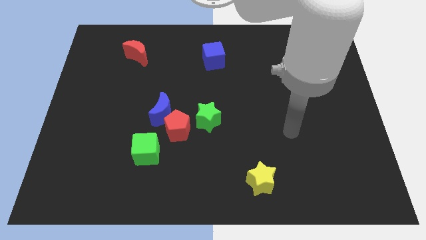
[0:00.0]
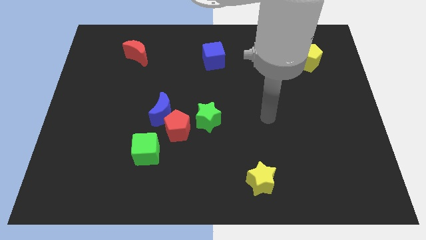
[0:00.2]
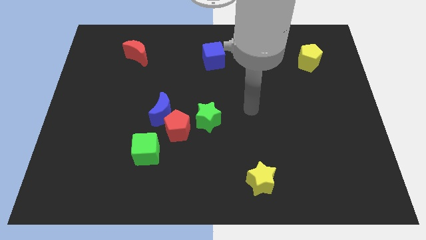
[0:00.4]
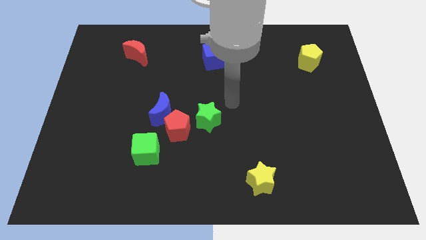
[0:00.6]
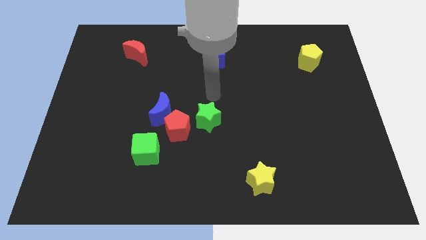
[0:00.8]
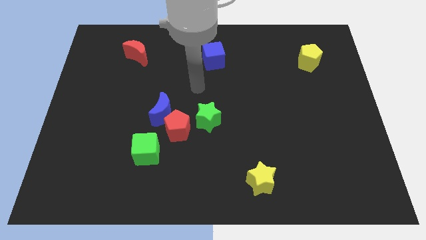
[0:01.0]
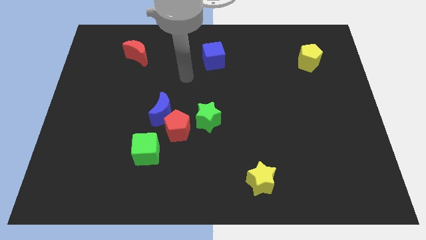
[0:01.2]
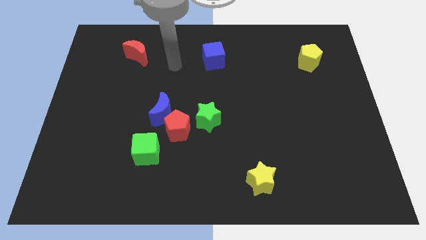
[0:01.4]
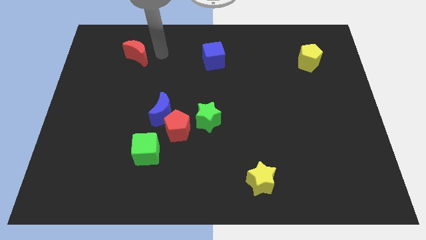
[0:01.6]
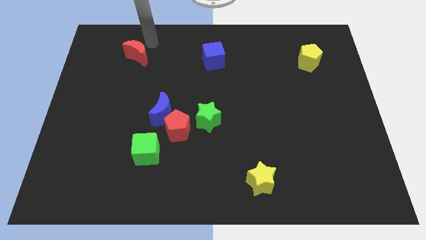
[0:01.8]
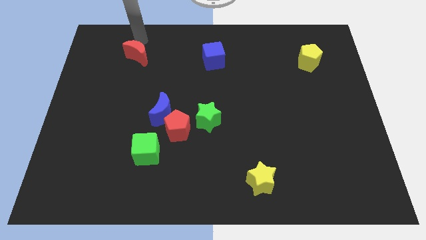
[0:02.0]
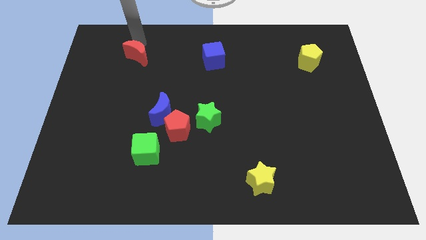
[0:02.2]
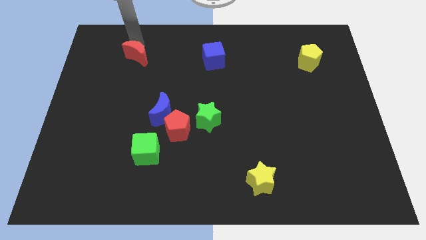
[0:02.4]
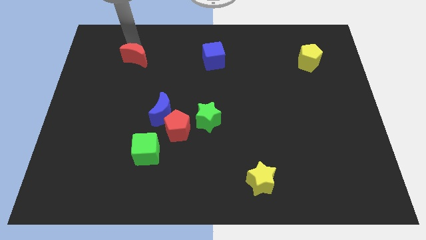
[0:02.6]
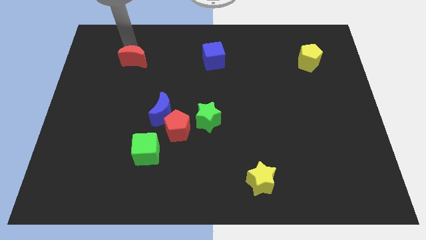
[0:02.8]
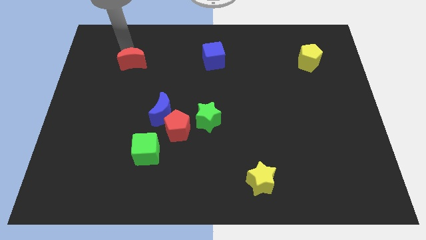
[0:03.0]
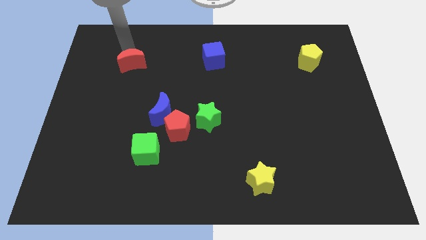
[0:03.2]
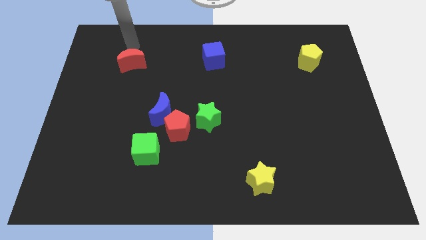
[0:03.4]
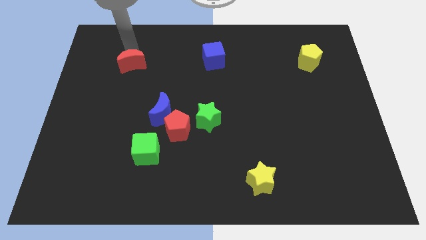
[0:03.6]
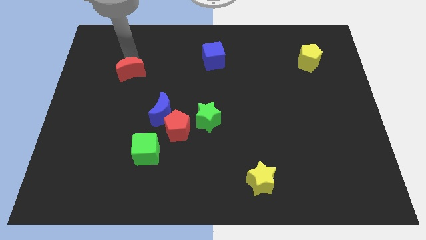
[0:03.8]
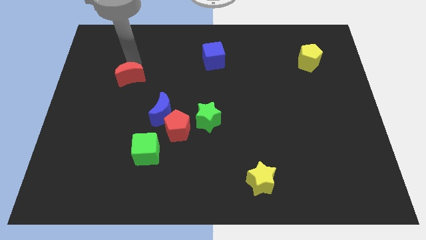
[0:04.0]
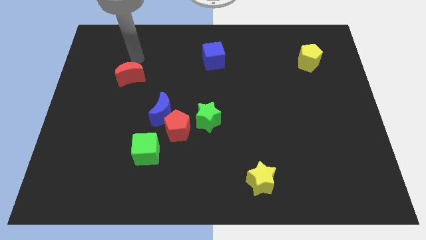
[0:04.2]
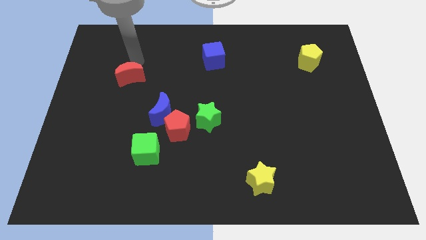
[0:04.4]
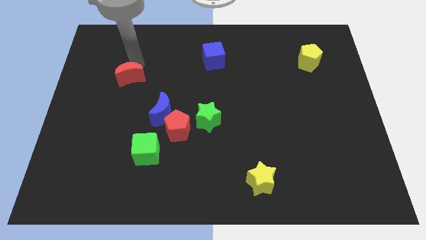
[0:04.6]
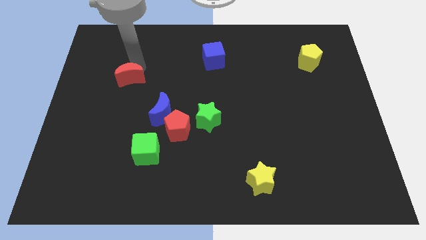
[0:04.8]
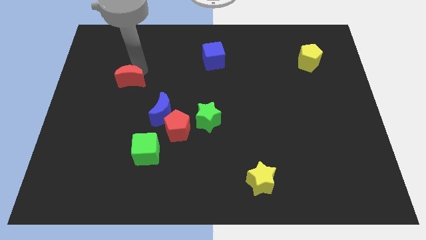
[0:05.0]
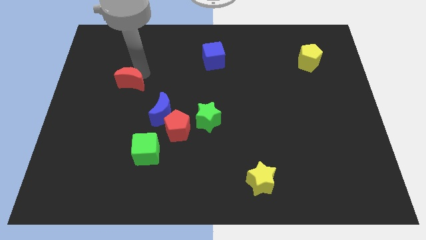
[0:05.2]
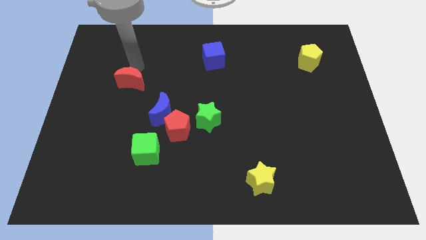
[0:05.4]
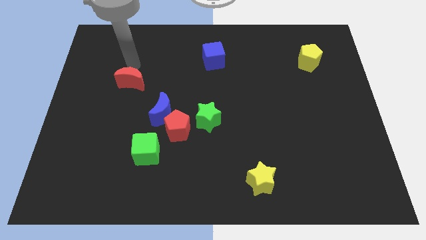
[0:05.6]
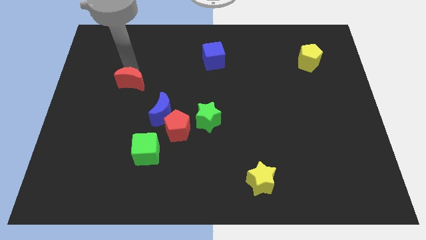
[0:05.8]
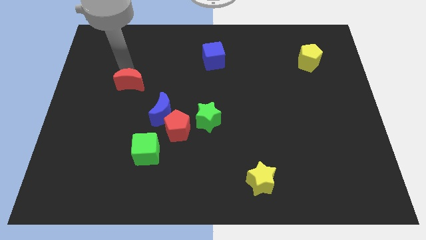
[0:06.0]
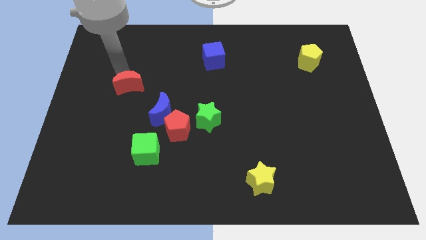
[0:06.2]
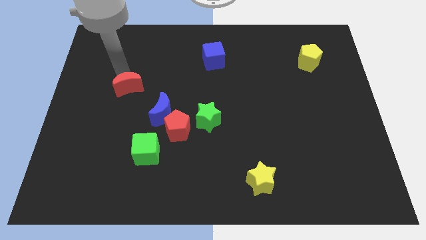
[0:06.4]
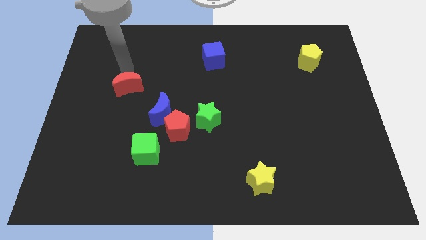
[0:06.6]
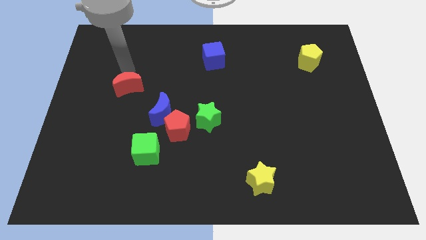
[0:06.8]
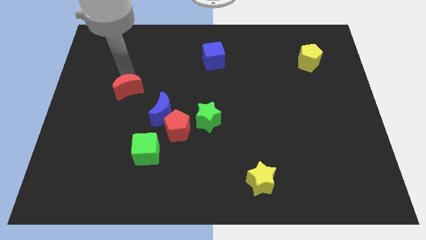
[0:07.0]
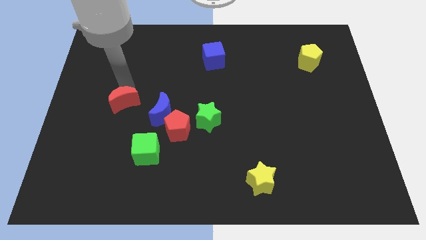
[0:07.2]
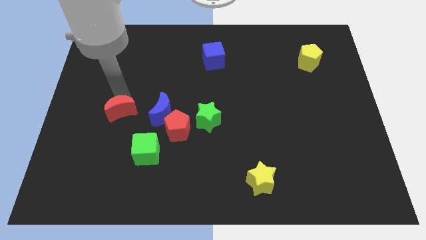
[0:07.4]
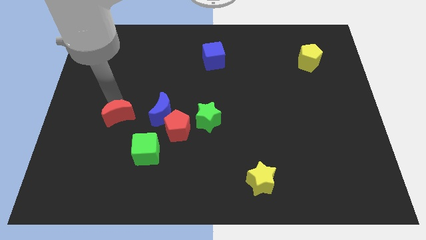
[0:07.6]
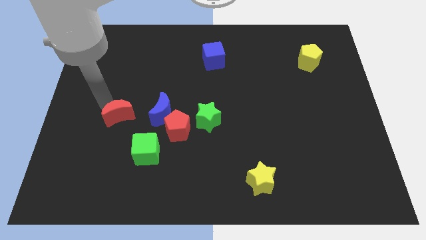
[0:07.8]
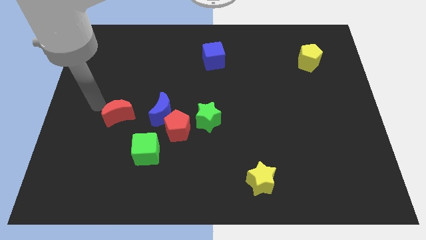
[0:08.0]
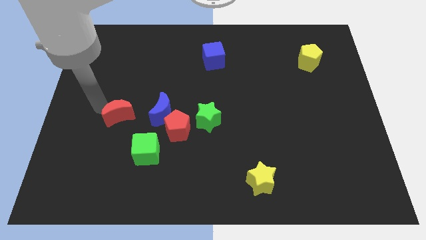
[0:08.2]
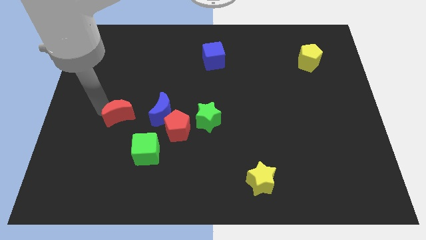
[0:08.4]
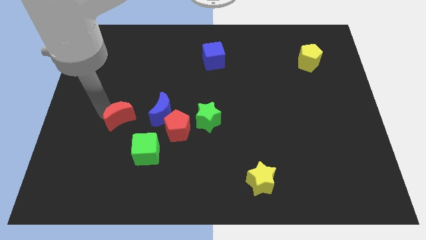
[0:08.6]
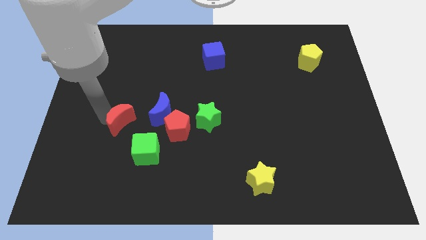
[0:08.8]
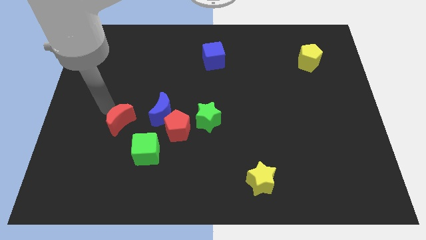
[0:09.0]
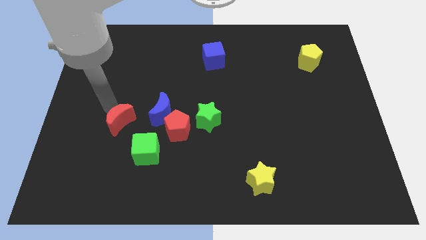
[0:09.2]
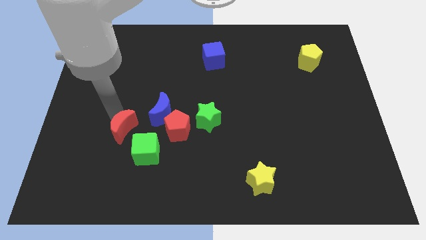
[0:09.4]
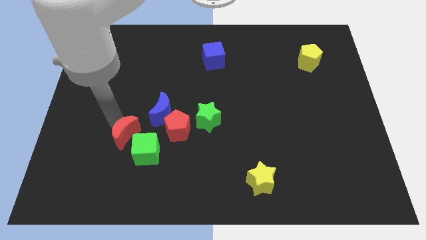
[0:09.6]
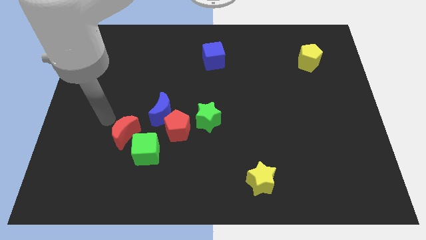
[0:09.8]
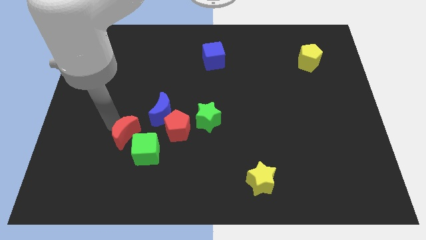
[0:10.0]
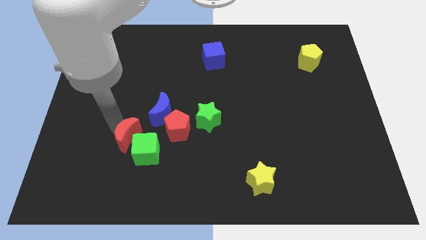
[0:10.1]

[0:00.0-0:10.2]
slide the red moon next to the green cube

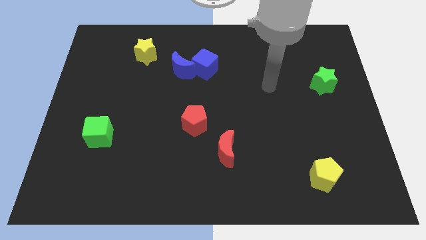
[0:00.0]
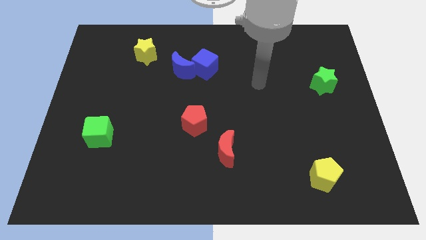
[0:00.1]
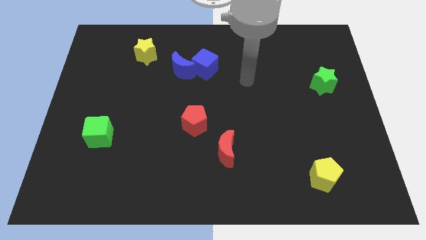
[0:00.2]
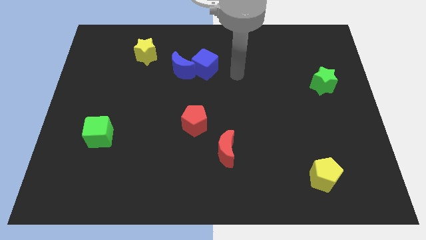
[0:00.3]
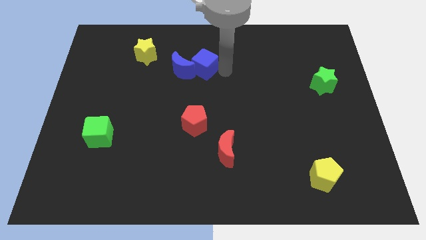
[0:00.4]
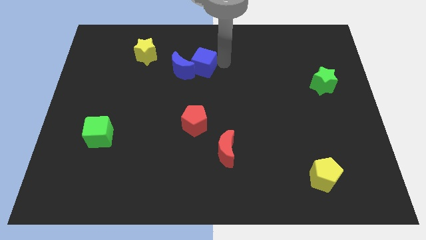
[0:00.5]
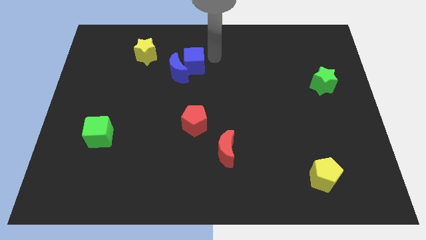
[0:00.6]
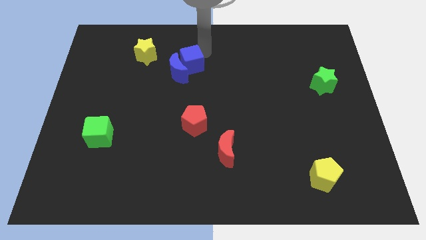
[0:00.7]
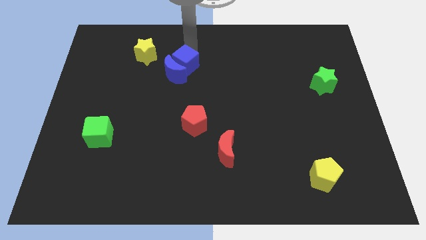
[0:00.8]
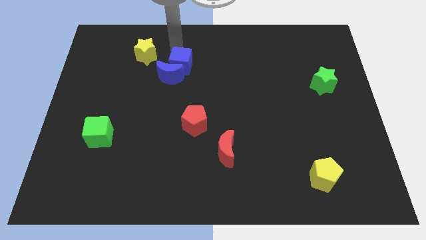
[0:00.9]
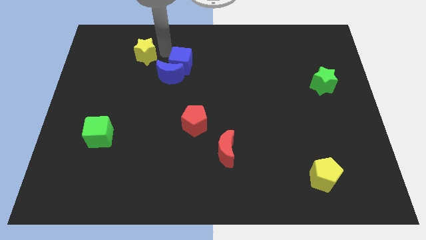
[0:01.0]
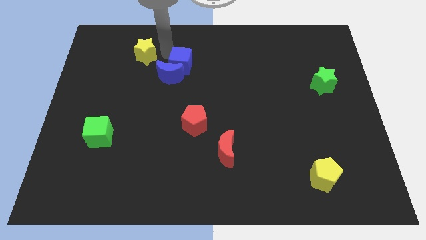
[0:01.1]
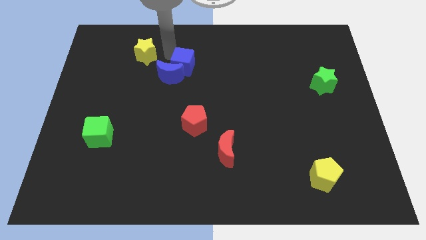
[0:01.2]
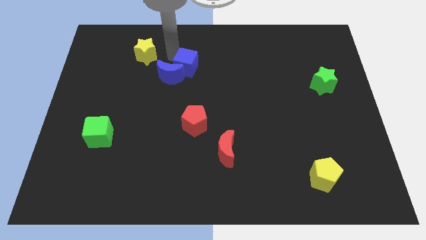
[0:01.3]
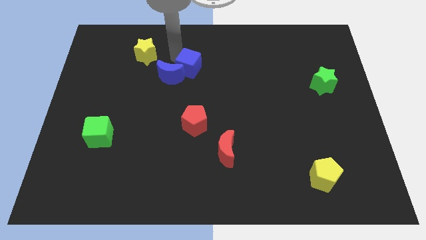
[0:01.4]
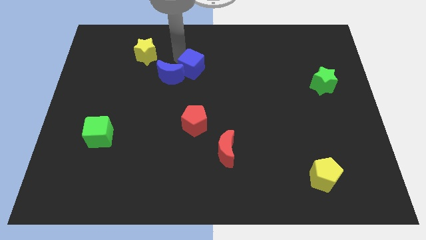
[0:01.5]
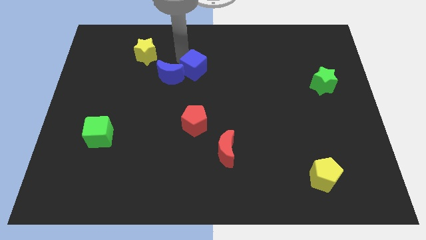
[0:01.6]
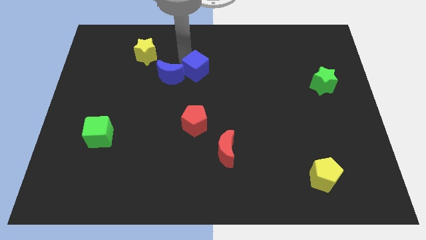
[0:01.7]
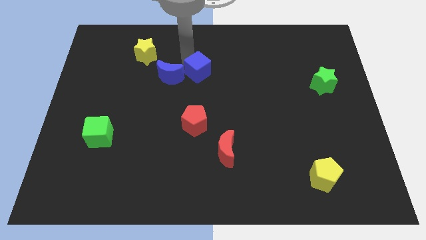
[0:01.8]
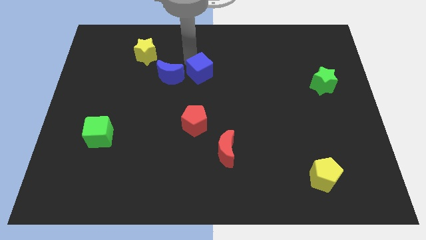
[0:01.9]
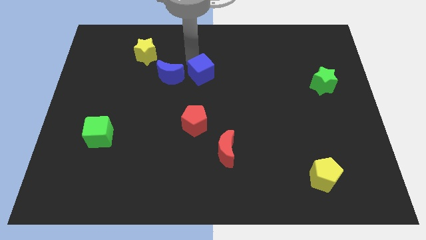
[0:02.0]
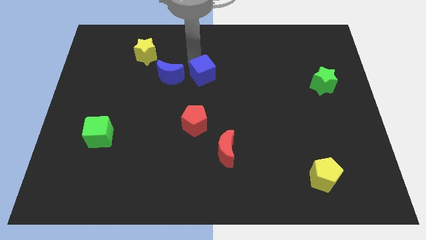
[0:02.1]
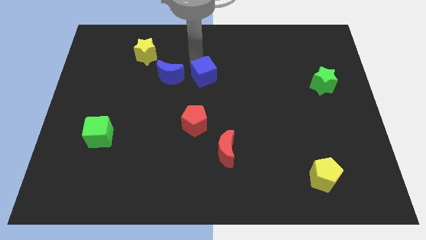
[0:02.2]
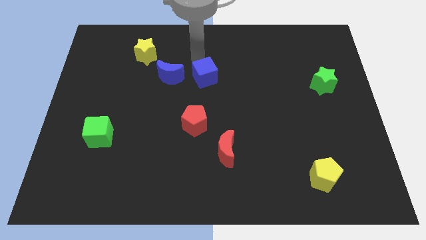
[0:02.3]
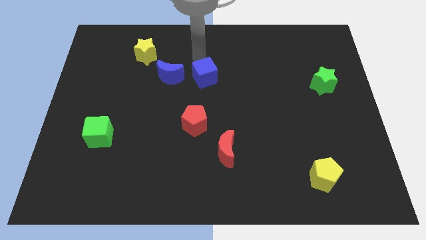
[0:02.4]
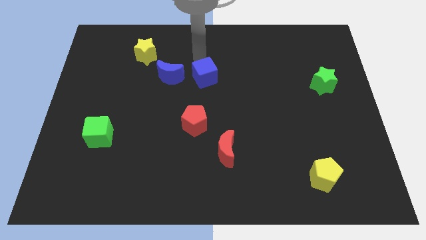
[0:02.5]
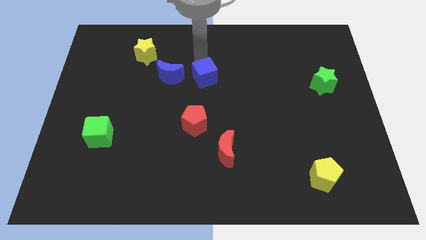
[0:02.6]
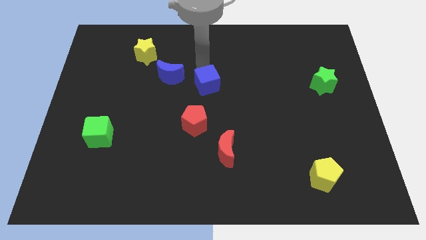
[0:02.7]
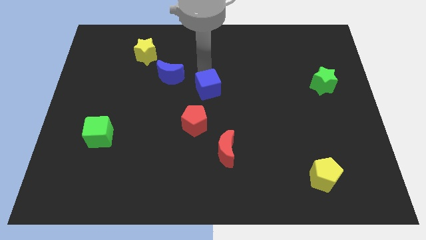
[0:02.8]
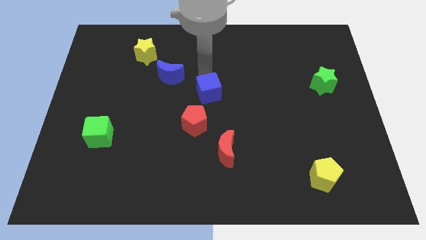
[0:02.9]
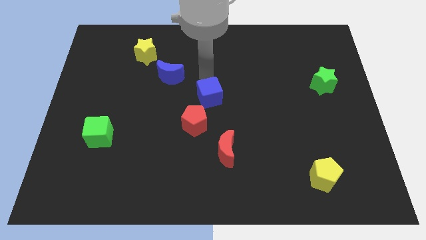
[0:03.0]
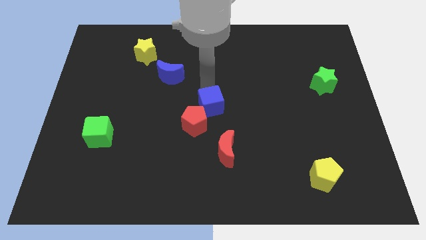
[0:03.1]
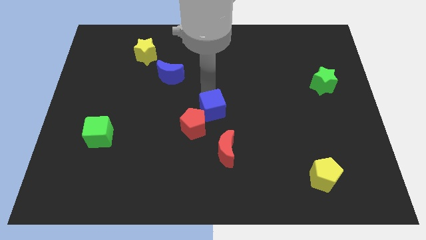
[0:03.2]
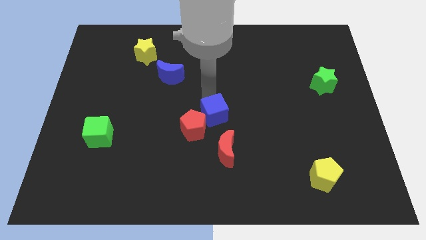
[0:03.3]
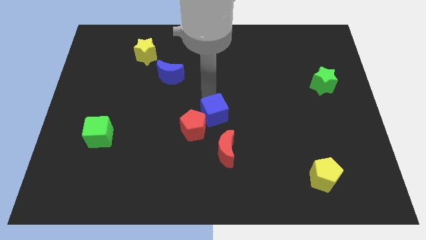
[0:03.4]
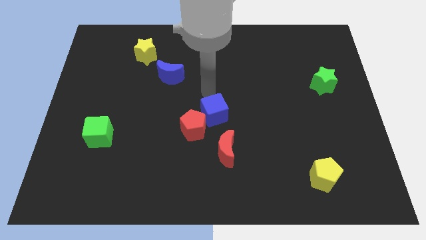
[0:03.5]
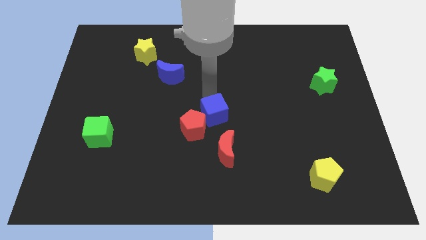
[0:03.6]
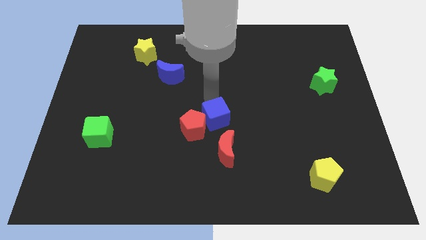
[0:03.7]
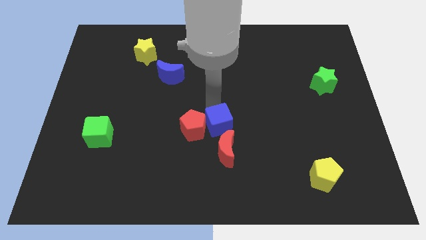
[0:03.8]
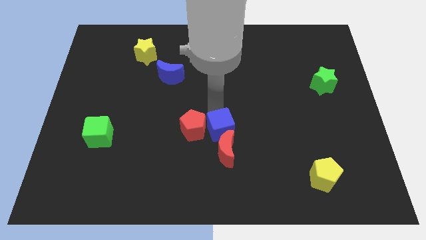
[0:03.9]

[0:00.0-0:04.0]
slide the blue cube next to the red moon
